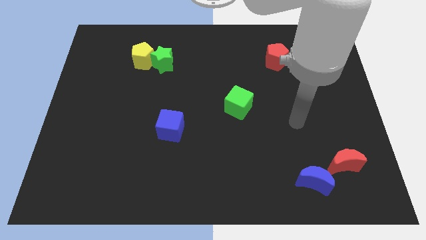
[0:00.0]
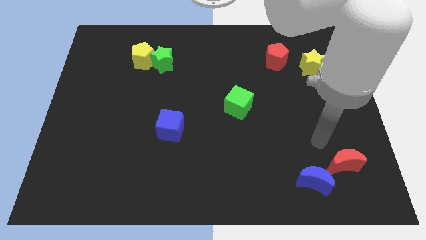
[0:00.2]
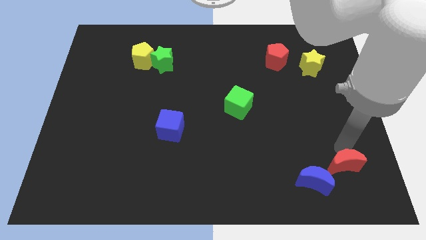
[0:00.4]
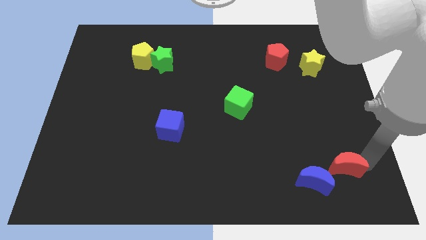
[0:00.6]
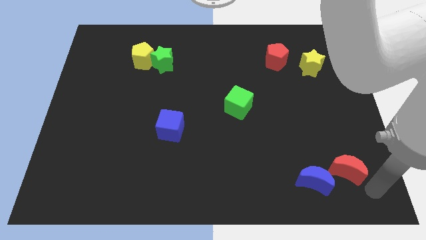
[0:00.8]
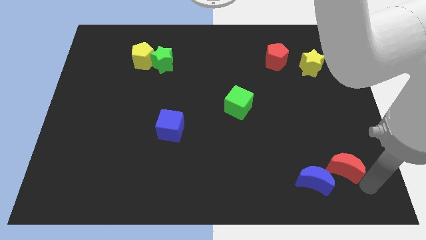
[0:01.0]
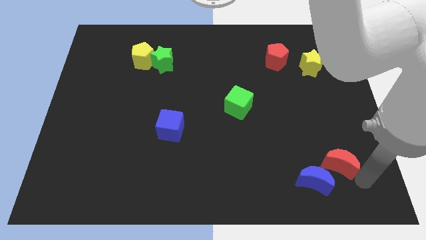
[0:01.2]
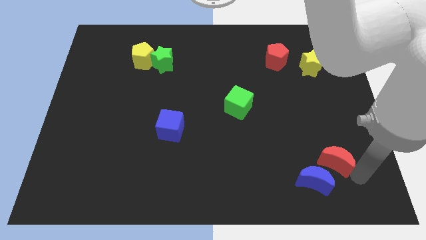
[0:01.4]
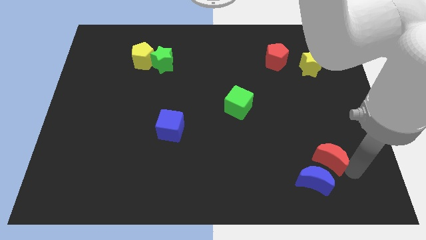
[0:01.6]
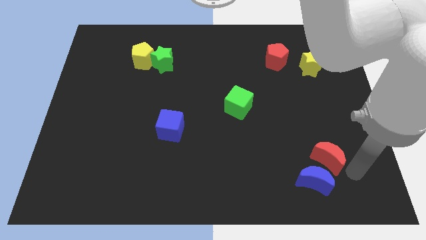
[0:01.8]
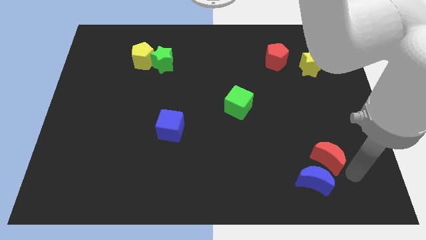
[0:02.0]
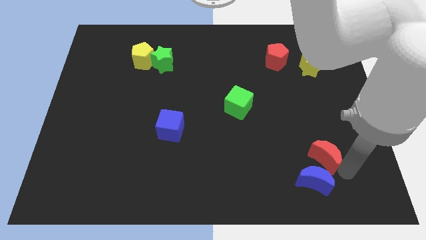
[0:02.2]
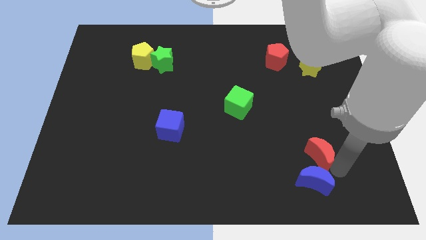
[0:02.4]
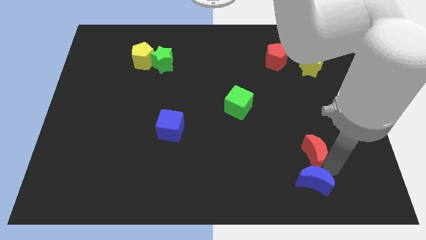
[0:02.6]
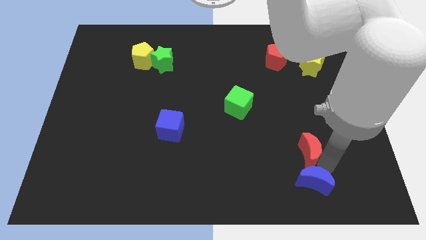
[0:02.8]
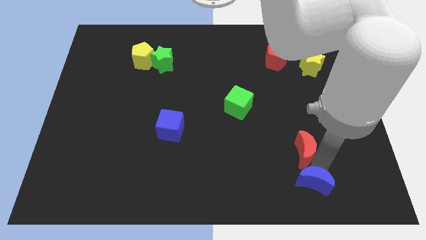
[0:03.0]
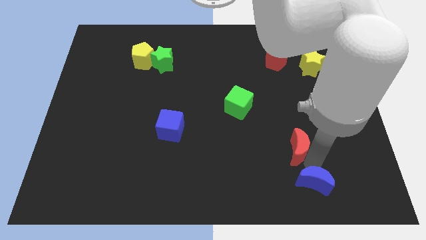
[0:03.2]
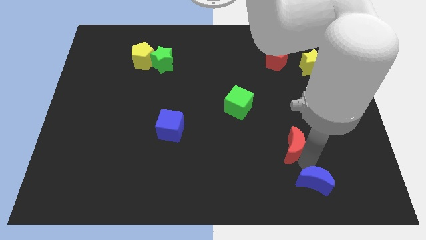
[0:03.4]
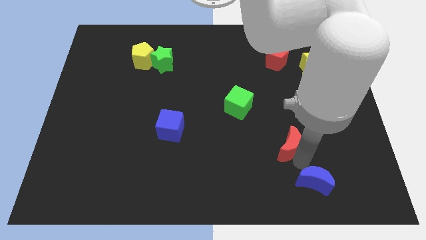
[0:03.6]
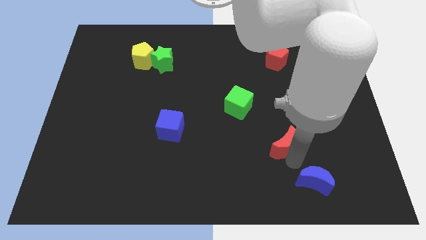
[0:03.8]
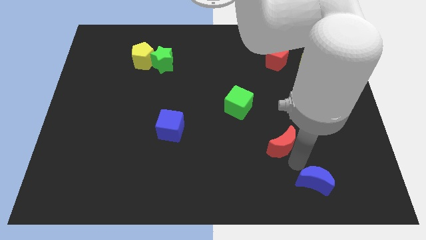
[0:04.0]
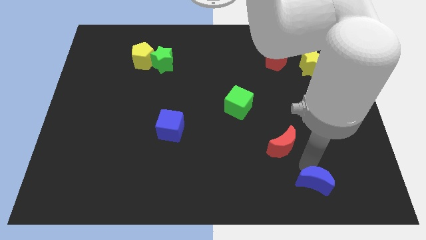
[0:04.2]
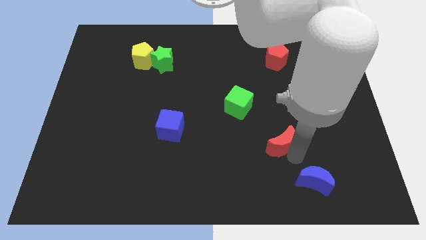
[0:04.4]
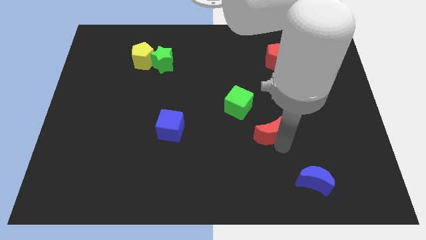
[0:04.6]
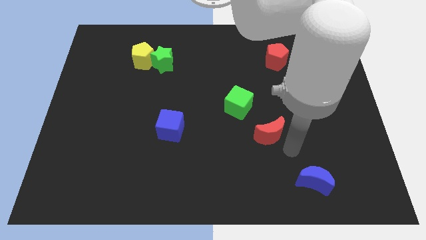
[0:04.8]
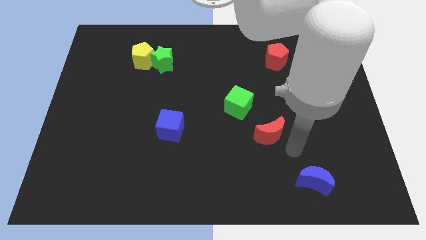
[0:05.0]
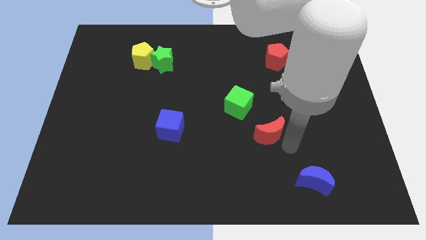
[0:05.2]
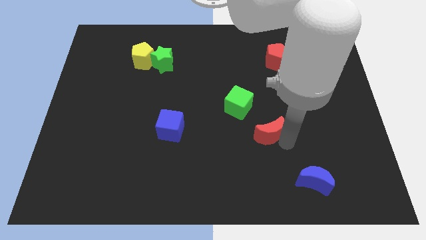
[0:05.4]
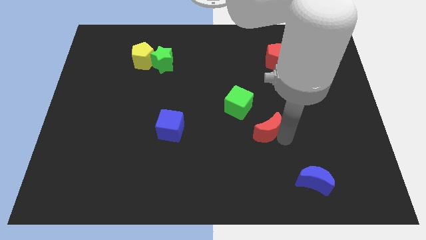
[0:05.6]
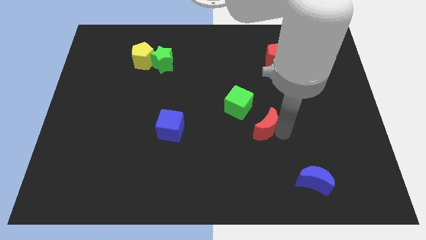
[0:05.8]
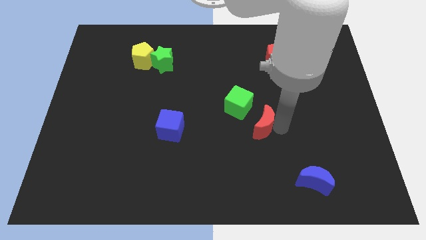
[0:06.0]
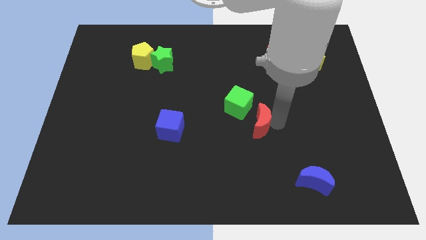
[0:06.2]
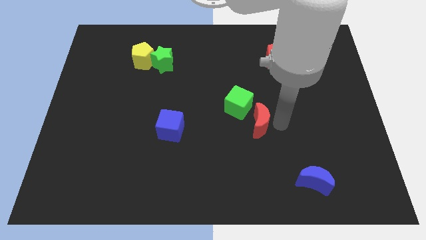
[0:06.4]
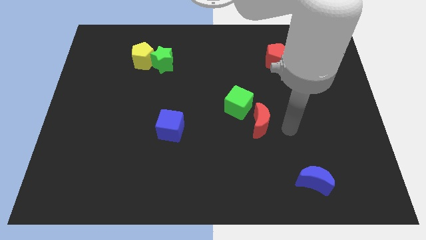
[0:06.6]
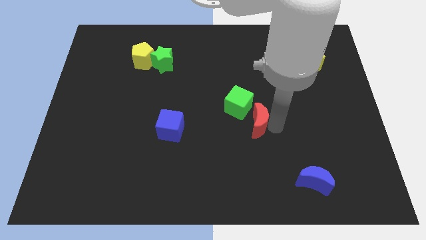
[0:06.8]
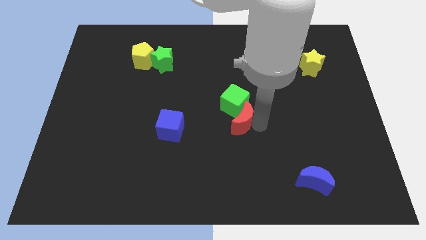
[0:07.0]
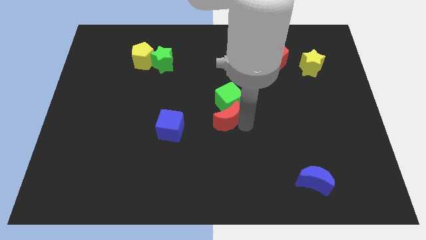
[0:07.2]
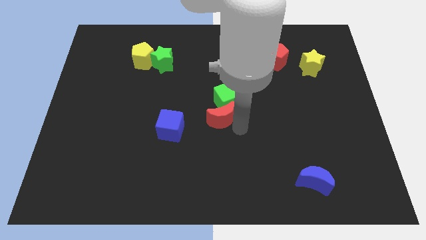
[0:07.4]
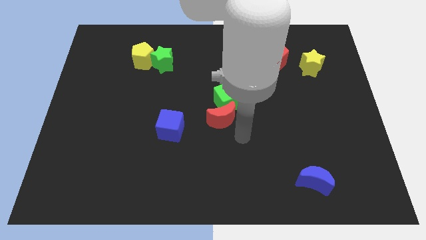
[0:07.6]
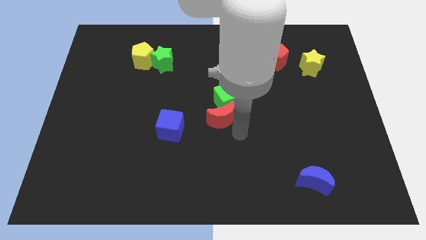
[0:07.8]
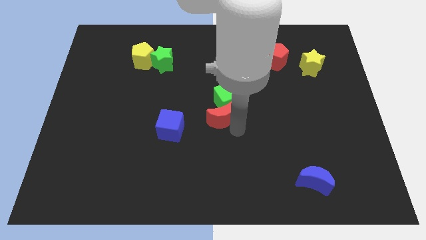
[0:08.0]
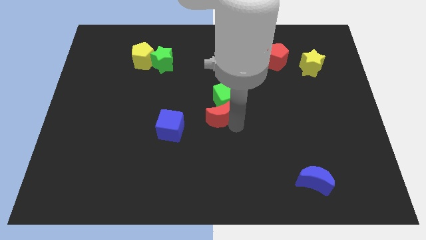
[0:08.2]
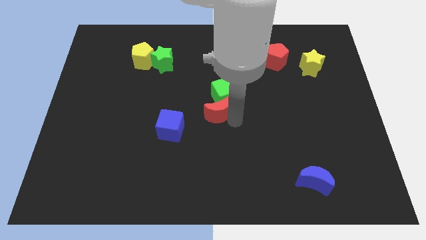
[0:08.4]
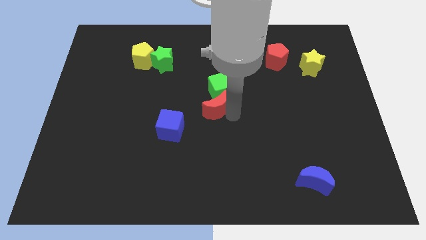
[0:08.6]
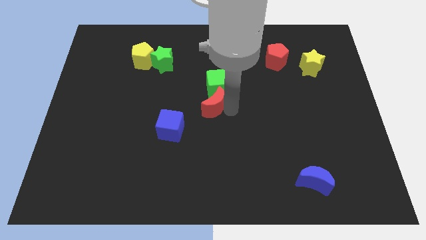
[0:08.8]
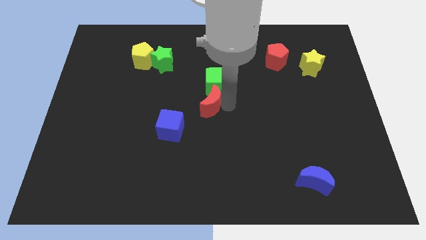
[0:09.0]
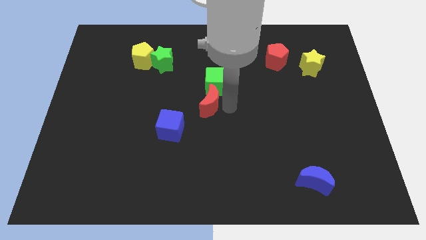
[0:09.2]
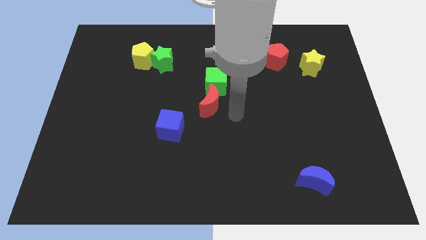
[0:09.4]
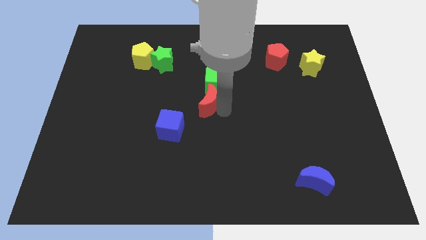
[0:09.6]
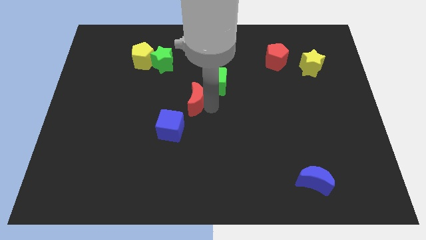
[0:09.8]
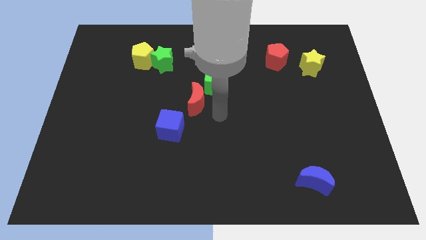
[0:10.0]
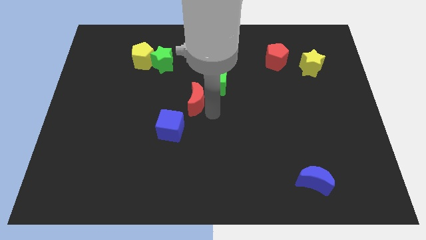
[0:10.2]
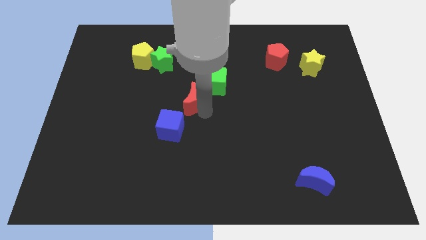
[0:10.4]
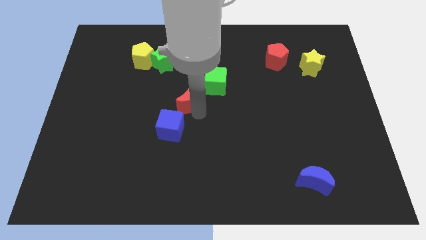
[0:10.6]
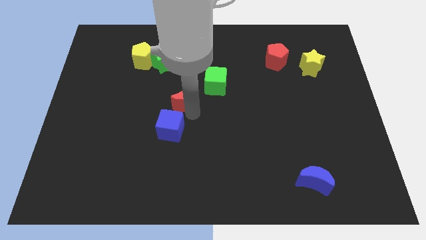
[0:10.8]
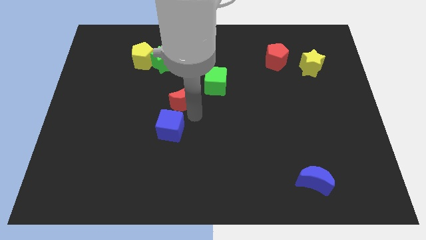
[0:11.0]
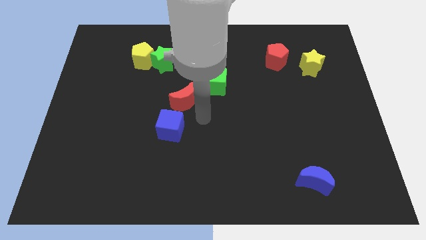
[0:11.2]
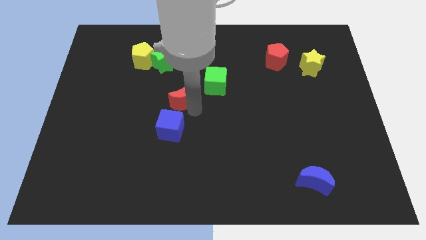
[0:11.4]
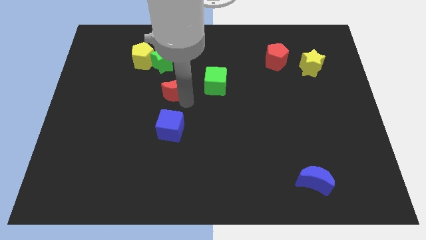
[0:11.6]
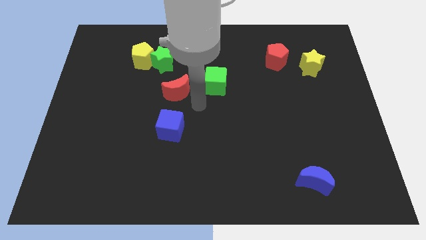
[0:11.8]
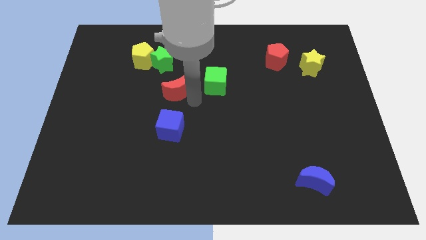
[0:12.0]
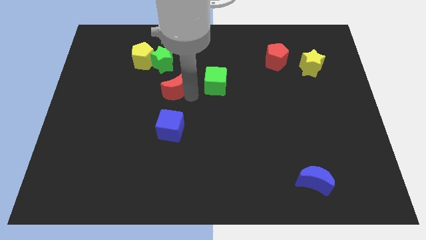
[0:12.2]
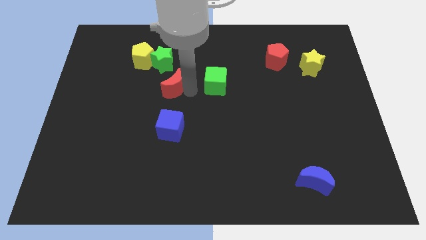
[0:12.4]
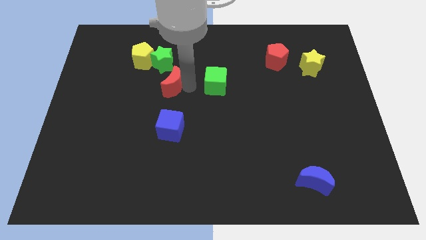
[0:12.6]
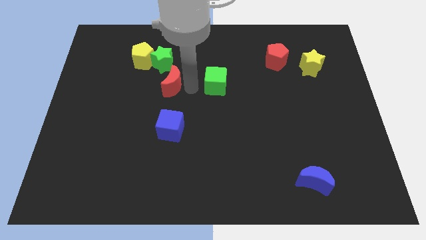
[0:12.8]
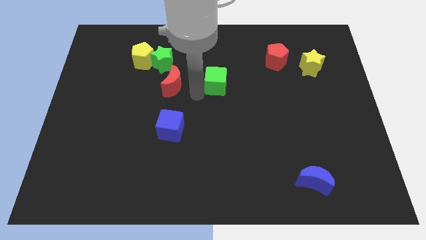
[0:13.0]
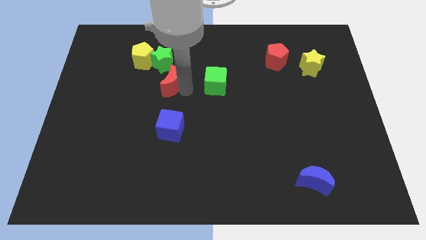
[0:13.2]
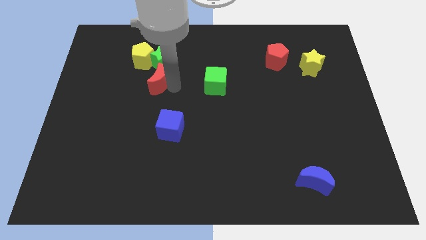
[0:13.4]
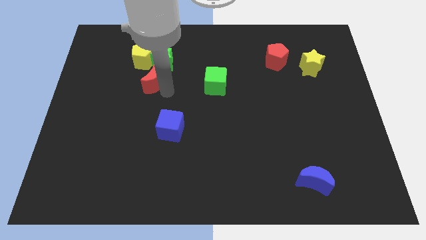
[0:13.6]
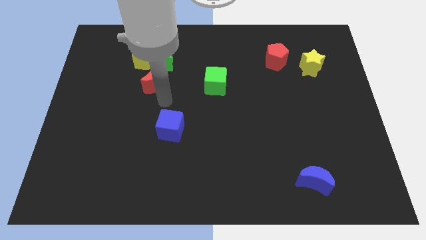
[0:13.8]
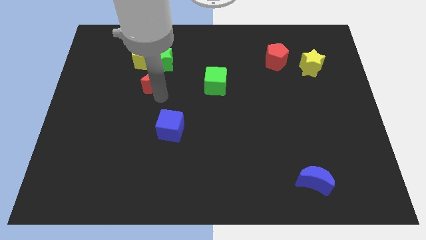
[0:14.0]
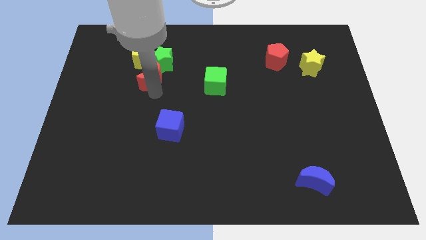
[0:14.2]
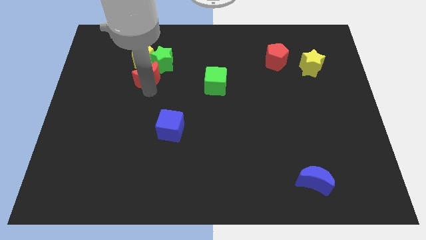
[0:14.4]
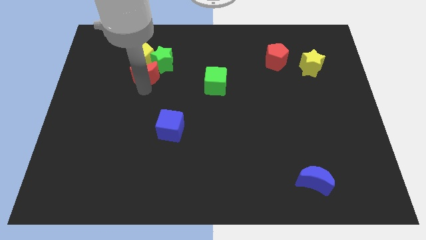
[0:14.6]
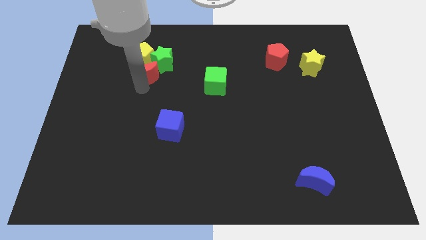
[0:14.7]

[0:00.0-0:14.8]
push the red moon close to the yellow pentagon
